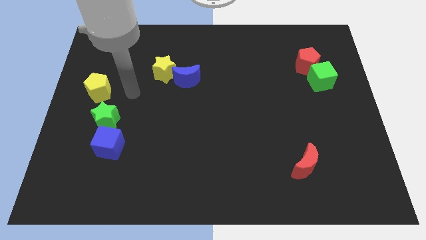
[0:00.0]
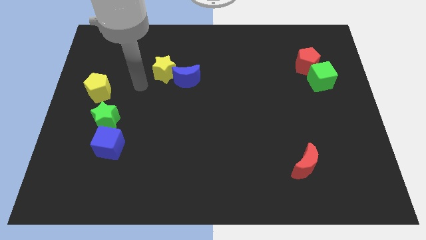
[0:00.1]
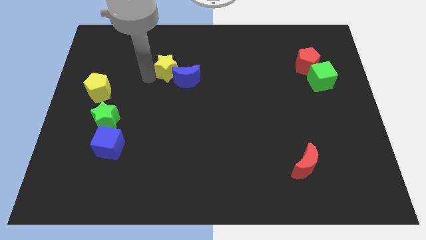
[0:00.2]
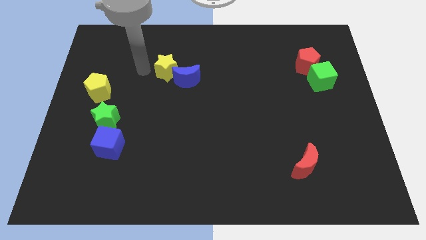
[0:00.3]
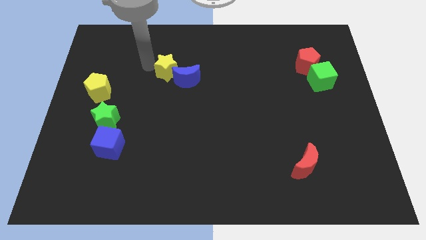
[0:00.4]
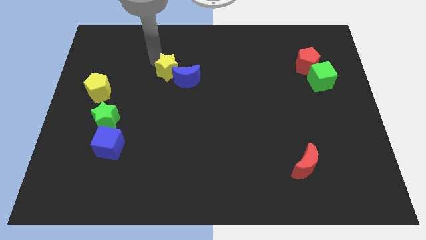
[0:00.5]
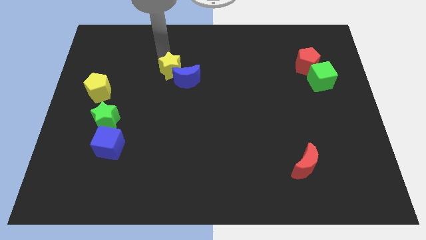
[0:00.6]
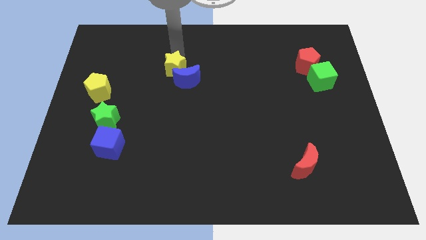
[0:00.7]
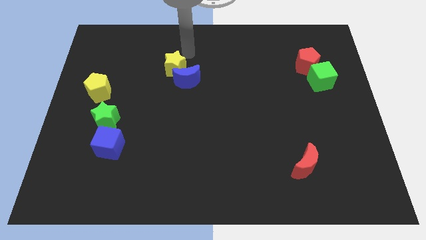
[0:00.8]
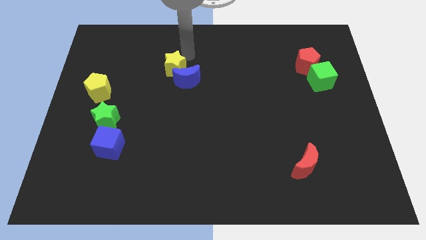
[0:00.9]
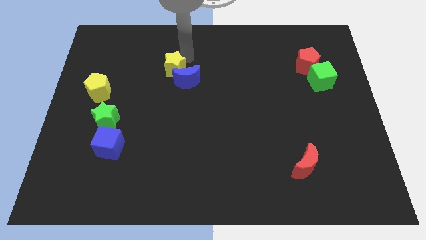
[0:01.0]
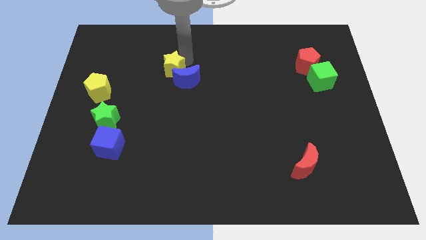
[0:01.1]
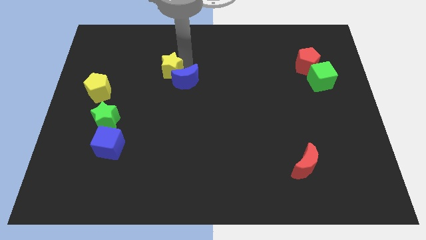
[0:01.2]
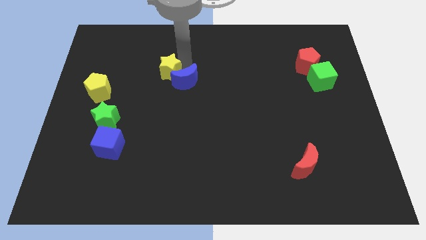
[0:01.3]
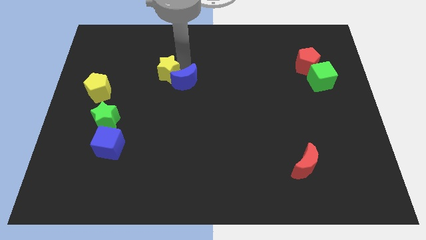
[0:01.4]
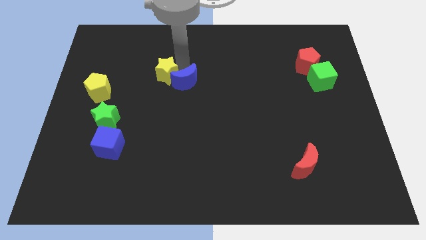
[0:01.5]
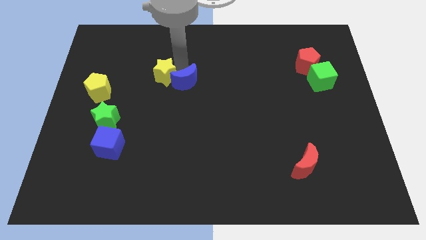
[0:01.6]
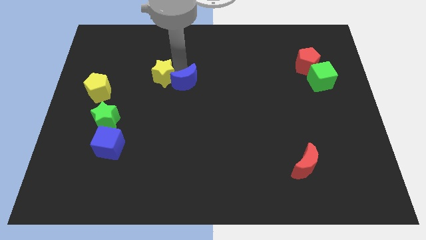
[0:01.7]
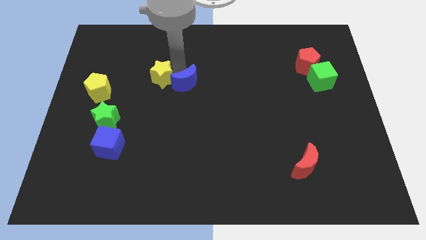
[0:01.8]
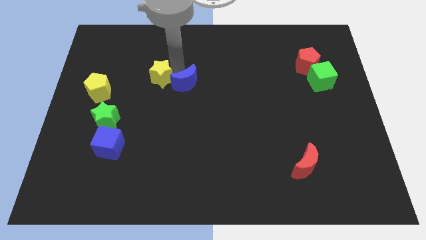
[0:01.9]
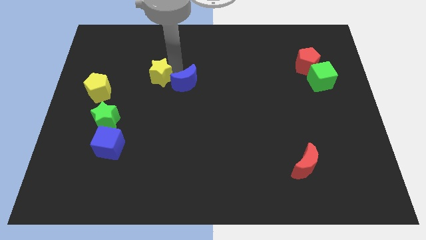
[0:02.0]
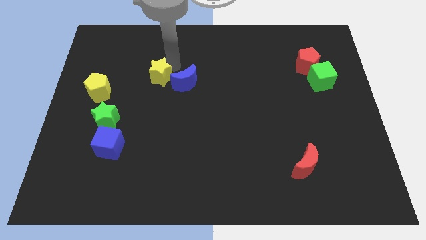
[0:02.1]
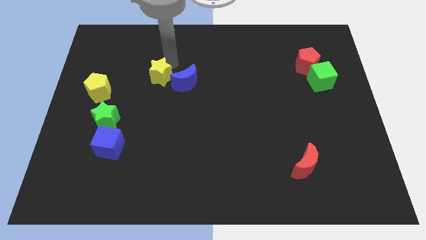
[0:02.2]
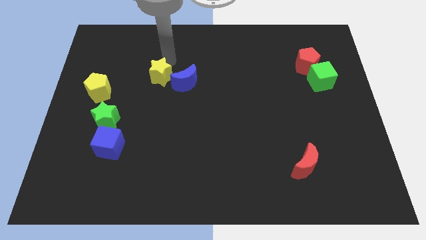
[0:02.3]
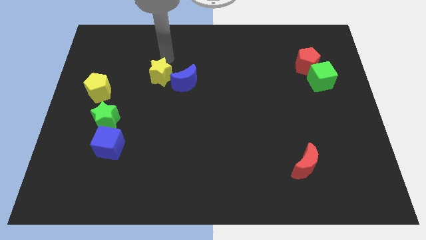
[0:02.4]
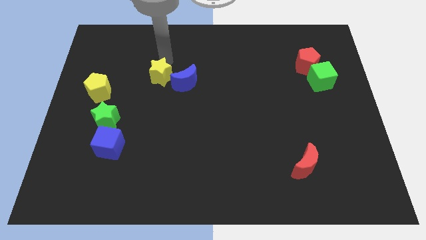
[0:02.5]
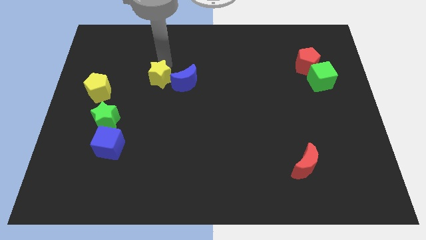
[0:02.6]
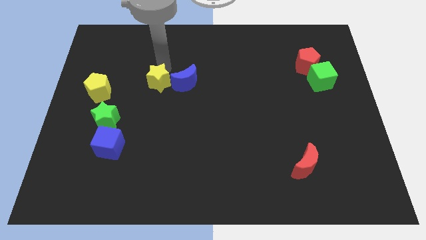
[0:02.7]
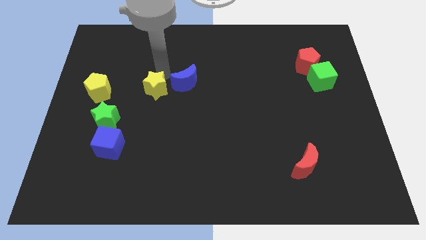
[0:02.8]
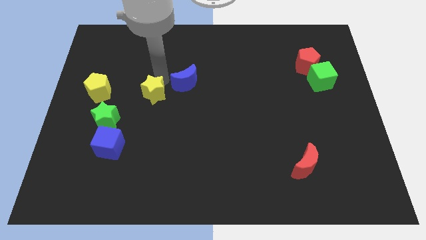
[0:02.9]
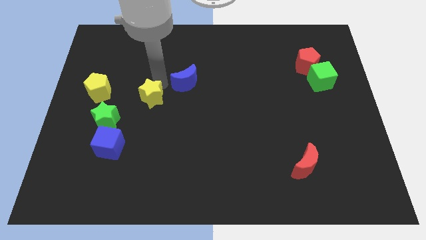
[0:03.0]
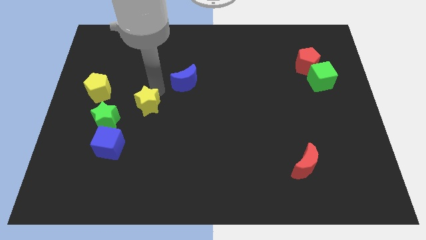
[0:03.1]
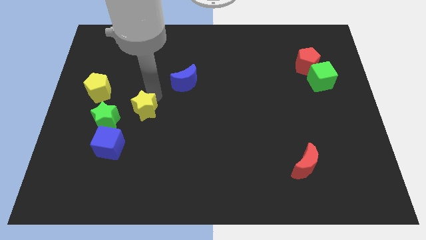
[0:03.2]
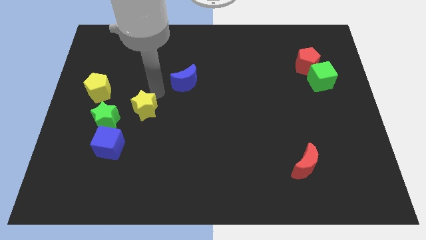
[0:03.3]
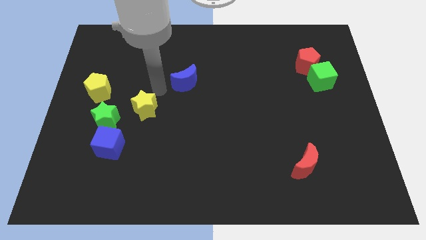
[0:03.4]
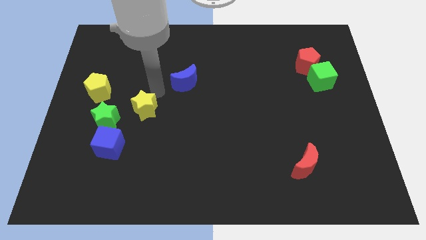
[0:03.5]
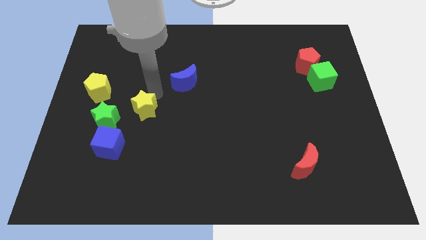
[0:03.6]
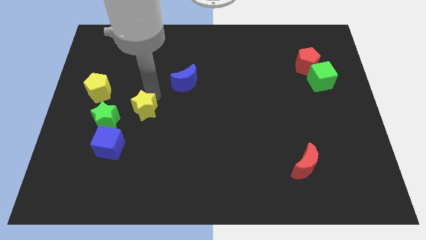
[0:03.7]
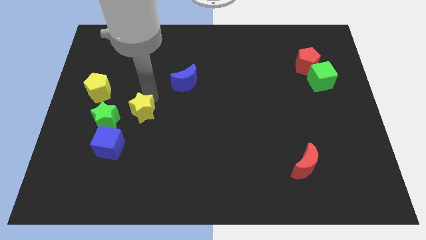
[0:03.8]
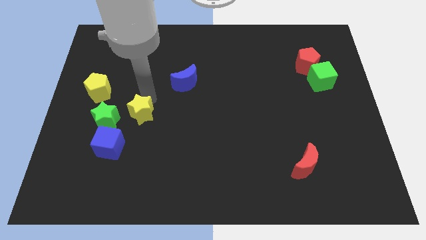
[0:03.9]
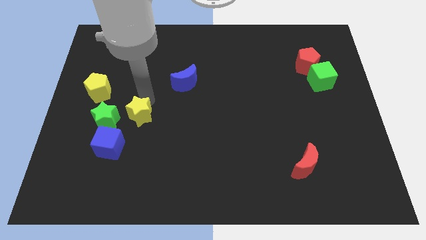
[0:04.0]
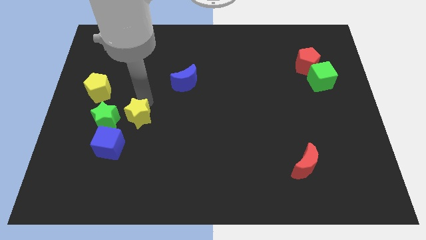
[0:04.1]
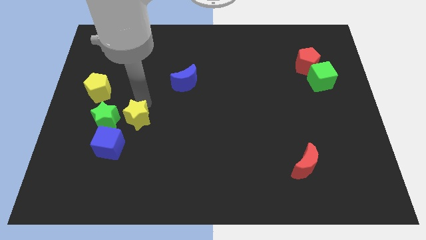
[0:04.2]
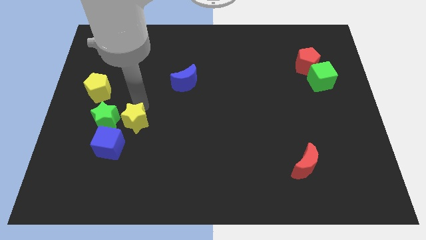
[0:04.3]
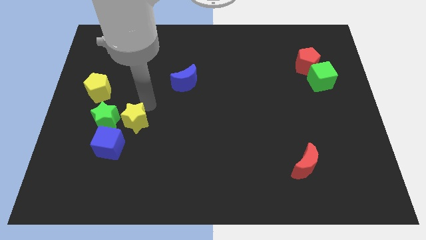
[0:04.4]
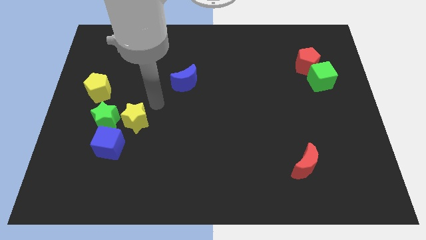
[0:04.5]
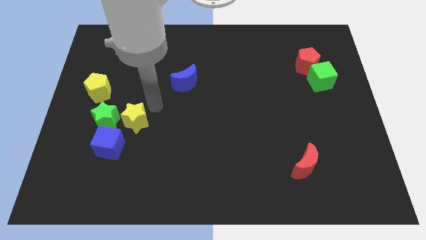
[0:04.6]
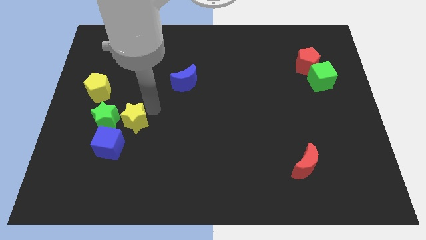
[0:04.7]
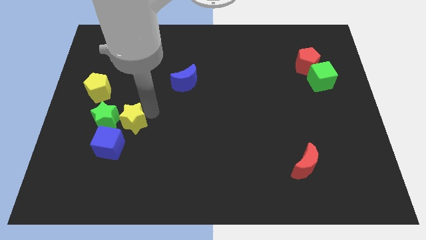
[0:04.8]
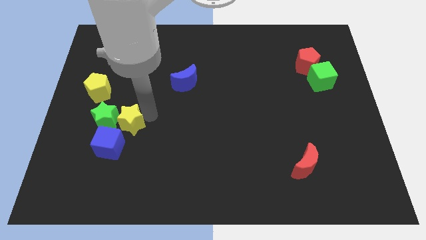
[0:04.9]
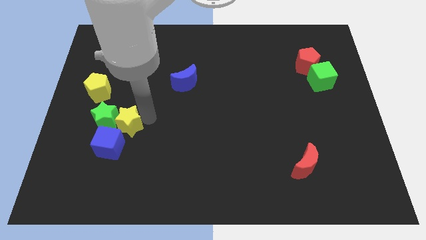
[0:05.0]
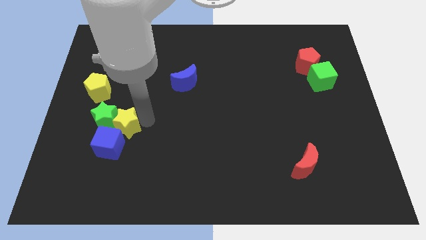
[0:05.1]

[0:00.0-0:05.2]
slide the yellow star next to the blue cube

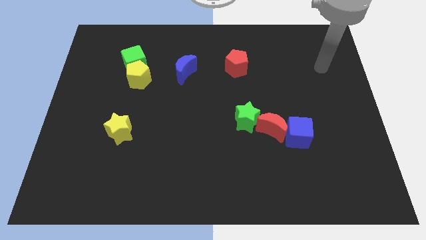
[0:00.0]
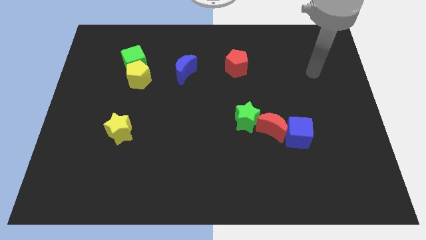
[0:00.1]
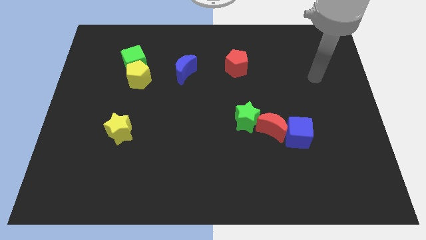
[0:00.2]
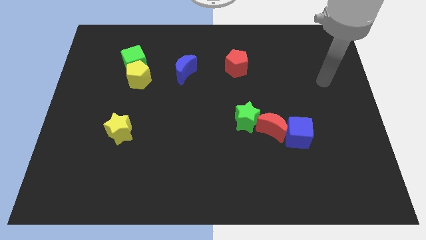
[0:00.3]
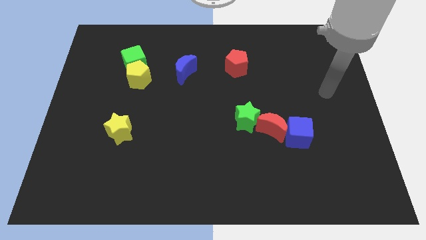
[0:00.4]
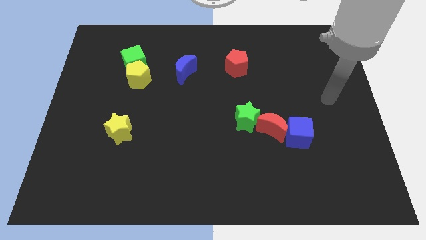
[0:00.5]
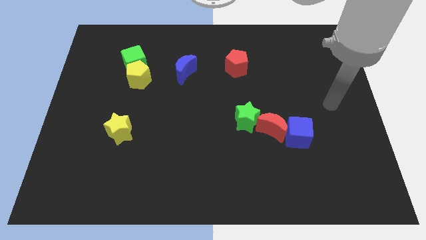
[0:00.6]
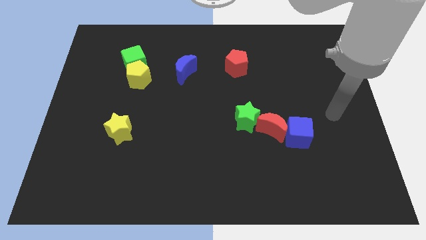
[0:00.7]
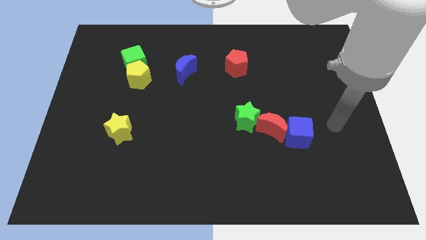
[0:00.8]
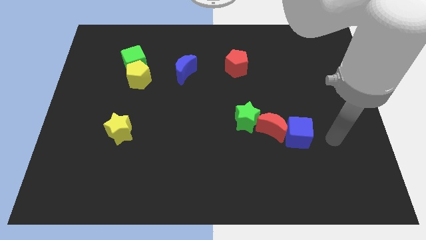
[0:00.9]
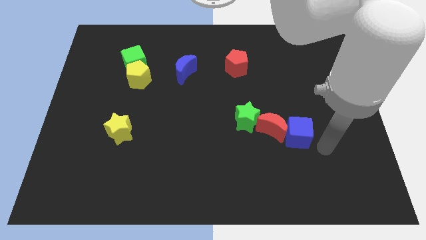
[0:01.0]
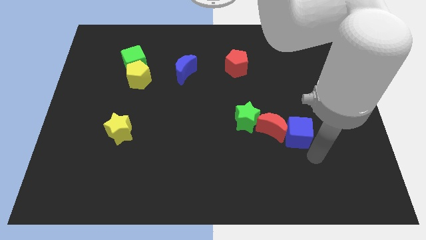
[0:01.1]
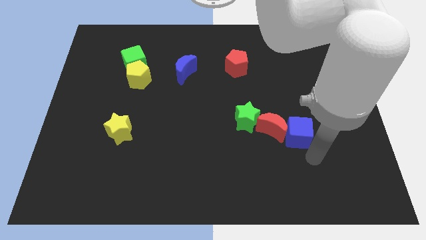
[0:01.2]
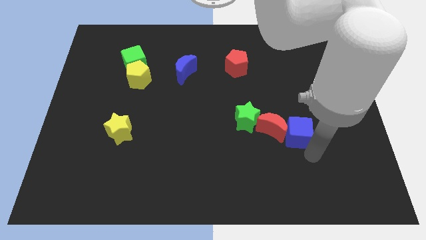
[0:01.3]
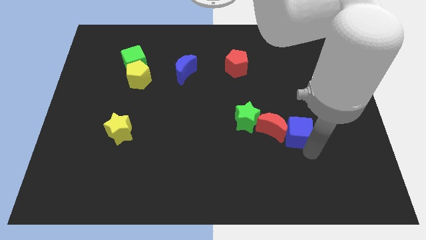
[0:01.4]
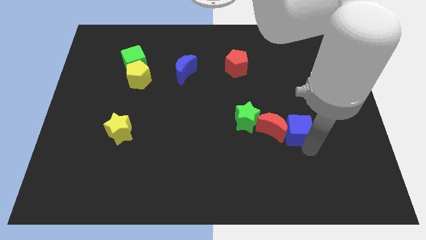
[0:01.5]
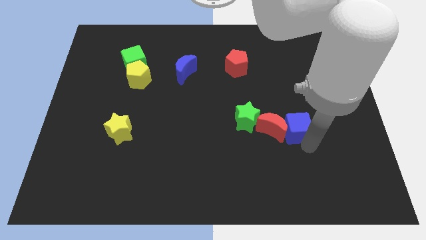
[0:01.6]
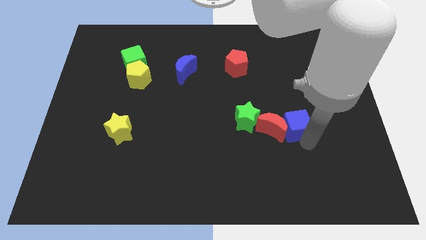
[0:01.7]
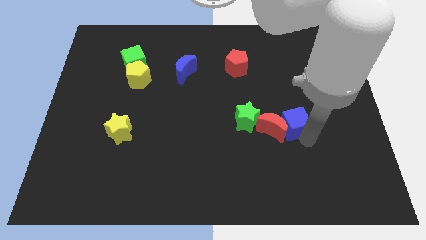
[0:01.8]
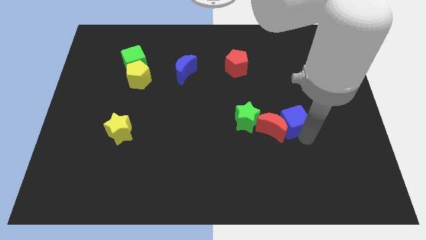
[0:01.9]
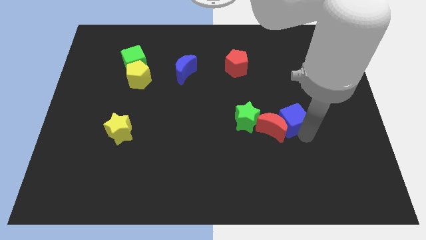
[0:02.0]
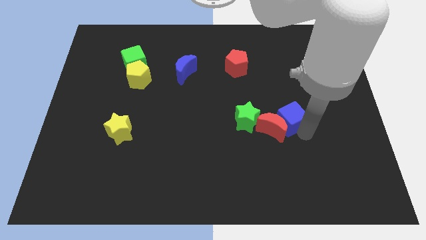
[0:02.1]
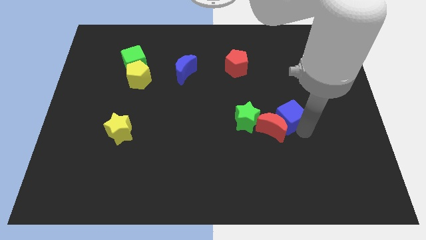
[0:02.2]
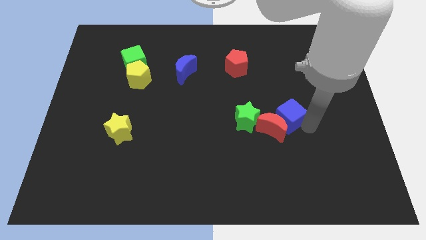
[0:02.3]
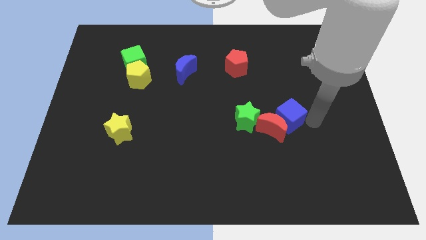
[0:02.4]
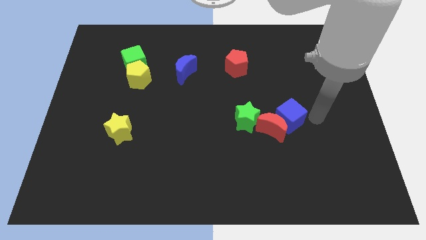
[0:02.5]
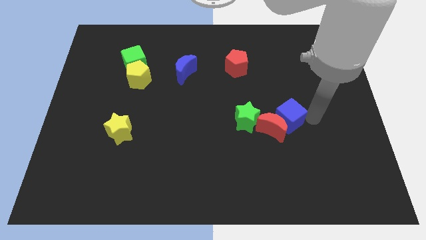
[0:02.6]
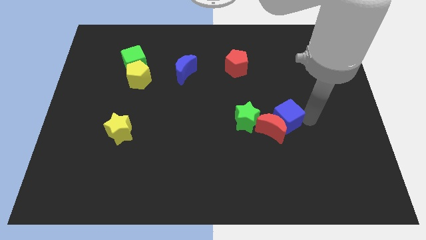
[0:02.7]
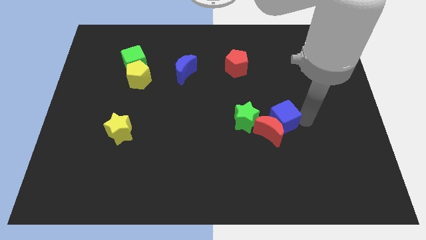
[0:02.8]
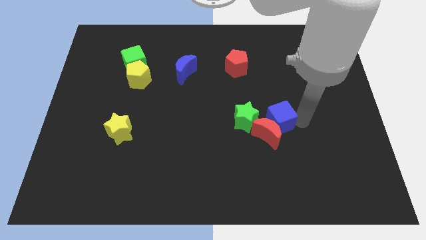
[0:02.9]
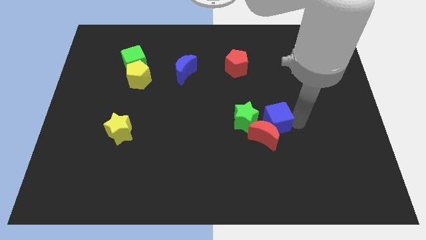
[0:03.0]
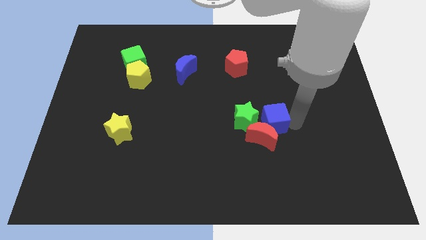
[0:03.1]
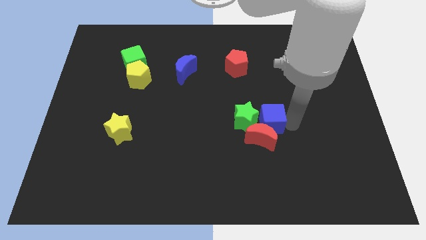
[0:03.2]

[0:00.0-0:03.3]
move the blue cube to the green star
